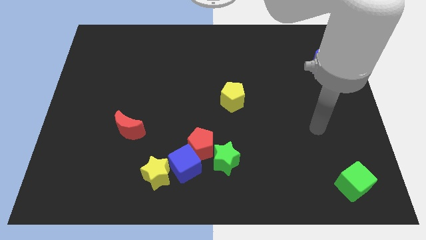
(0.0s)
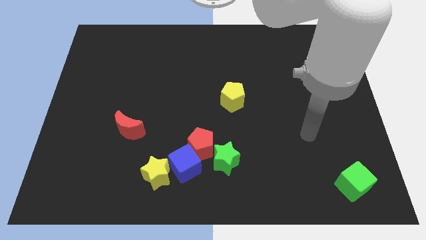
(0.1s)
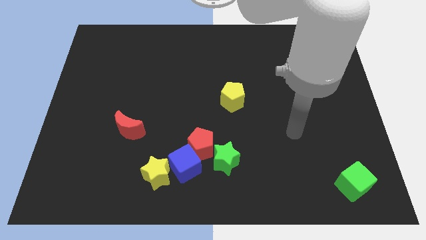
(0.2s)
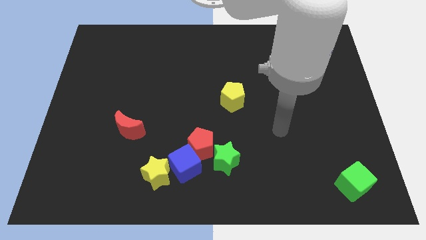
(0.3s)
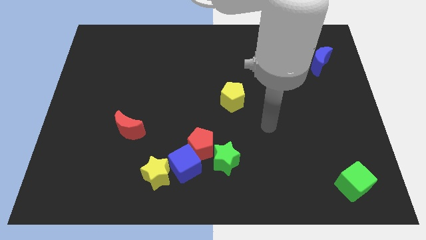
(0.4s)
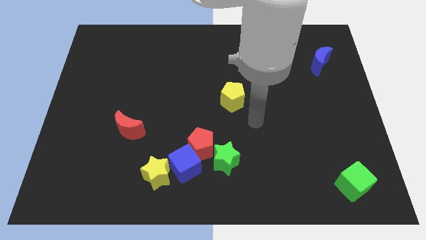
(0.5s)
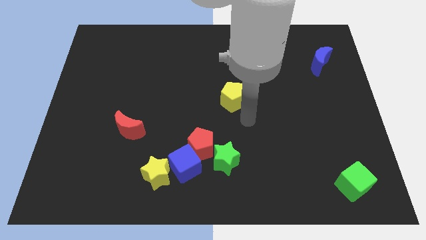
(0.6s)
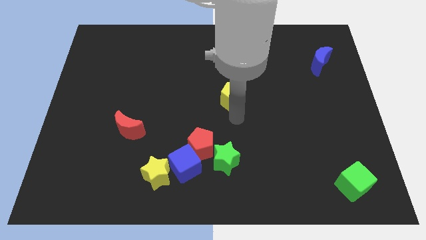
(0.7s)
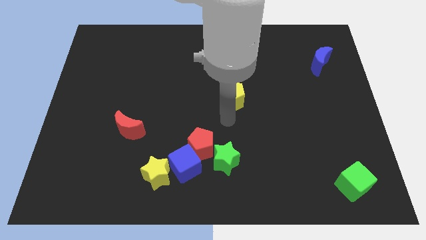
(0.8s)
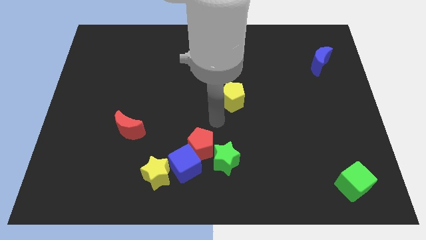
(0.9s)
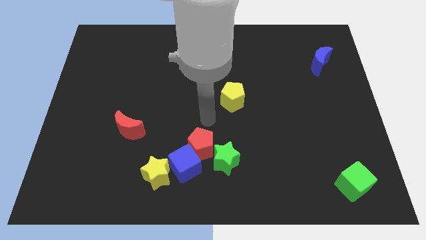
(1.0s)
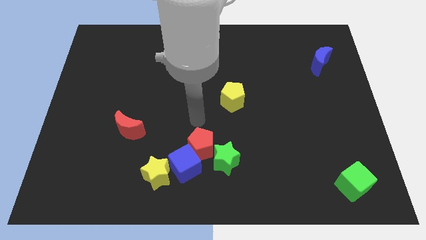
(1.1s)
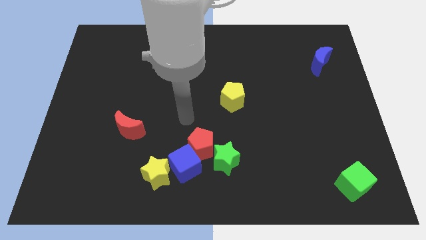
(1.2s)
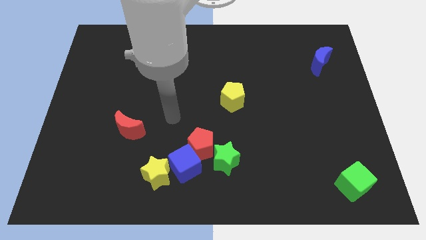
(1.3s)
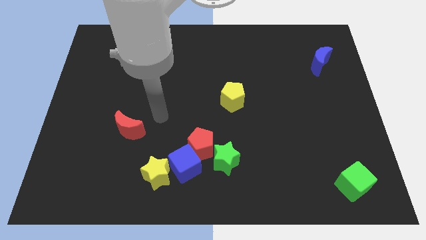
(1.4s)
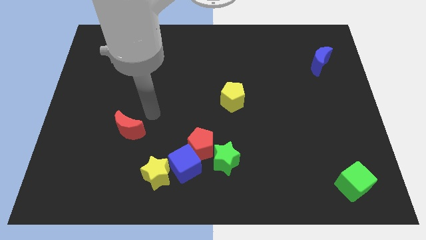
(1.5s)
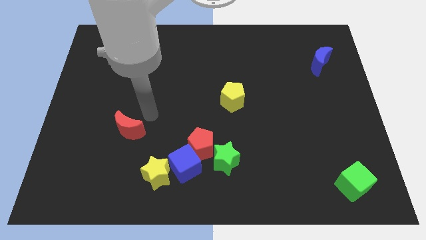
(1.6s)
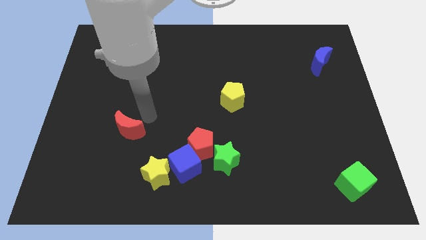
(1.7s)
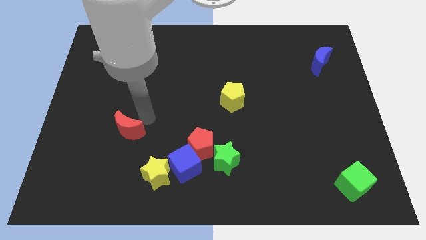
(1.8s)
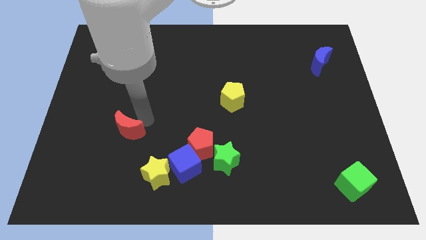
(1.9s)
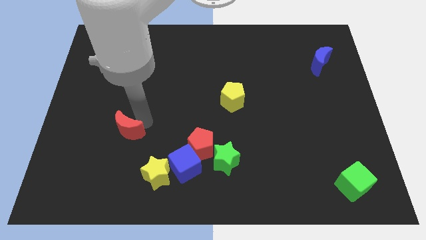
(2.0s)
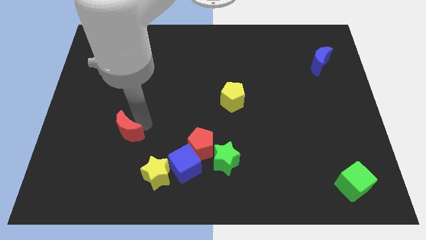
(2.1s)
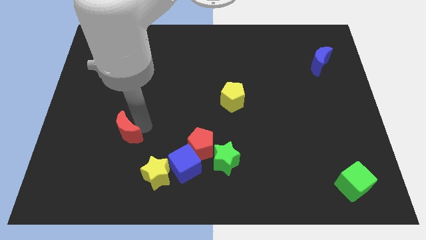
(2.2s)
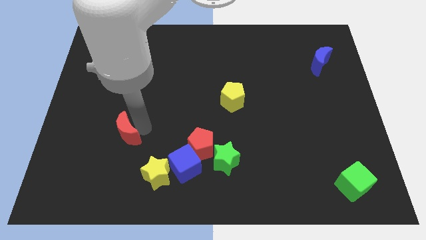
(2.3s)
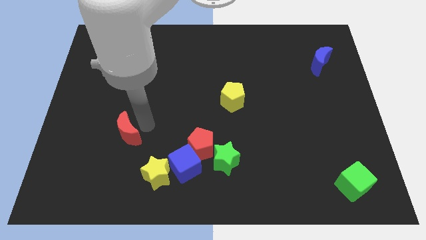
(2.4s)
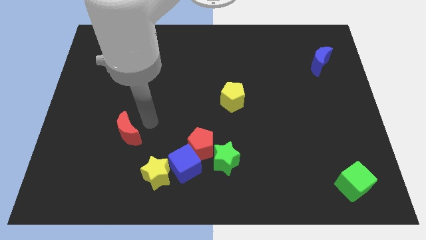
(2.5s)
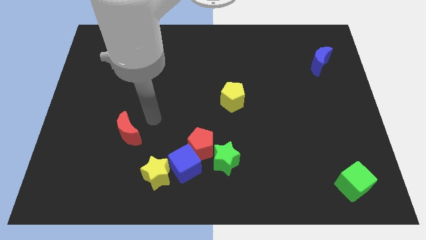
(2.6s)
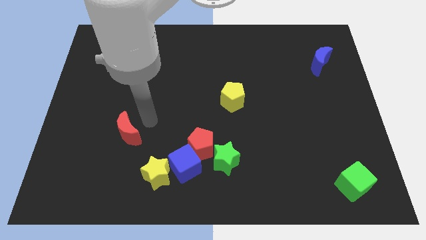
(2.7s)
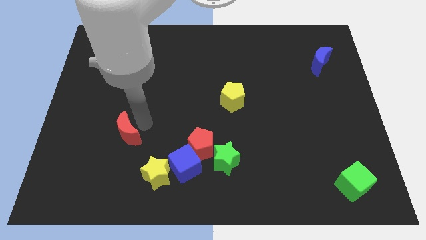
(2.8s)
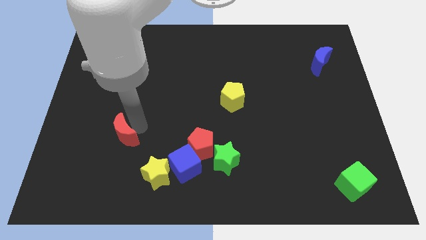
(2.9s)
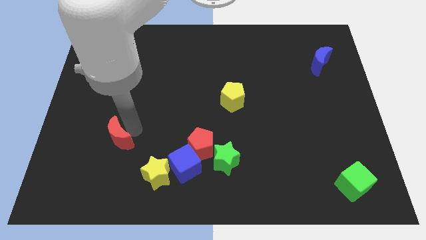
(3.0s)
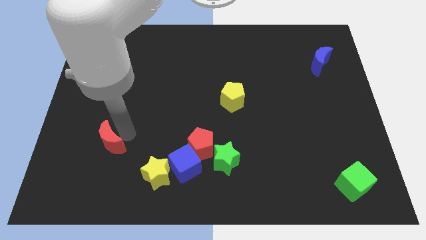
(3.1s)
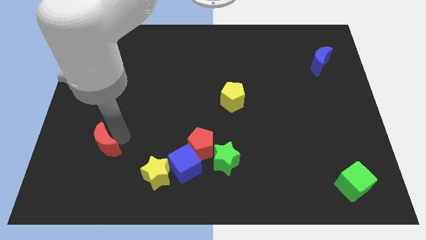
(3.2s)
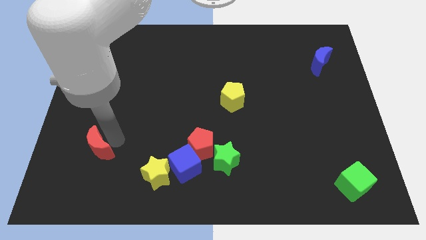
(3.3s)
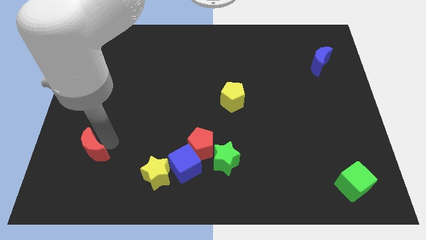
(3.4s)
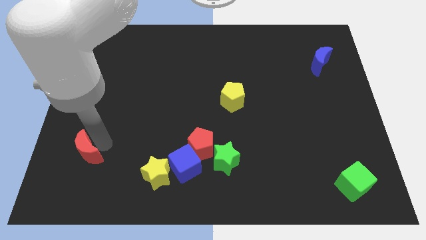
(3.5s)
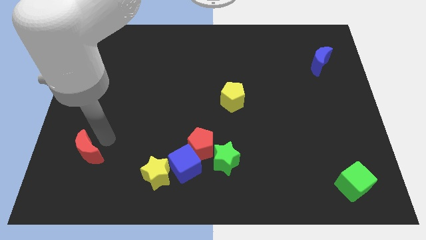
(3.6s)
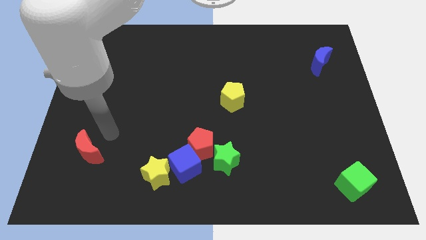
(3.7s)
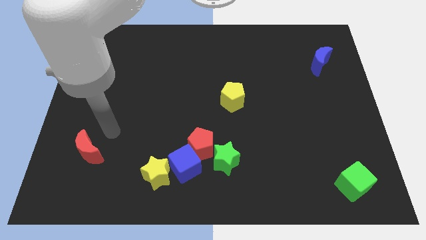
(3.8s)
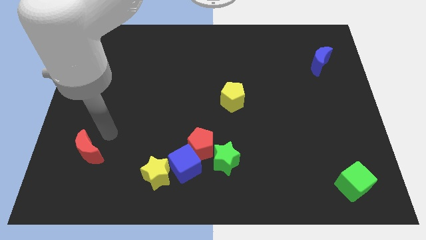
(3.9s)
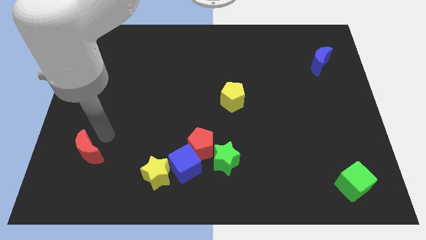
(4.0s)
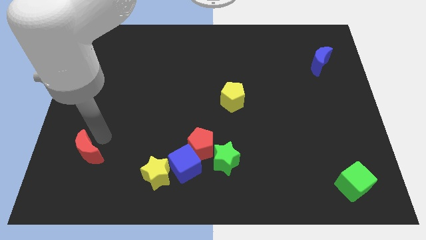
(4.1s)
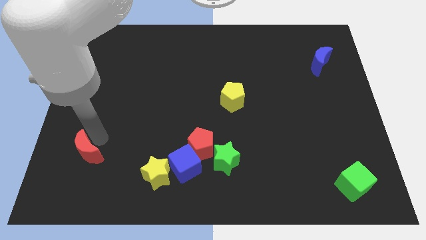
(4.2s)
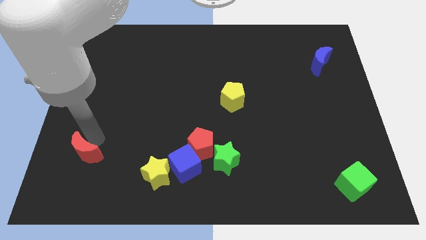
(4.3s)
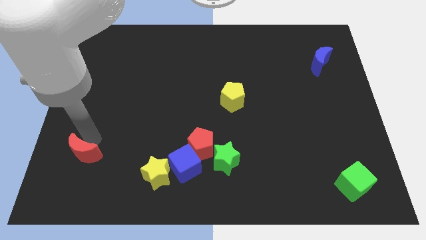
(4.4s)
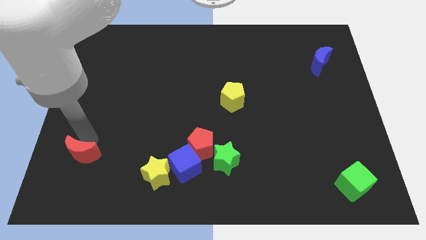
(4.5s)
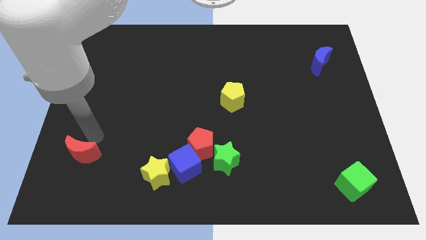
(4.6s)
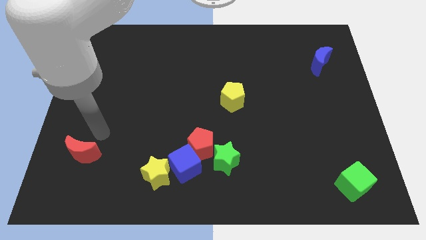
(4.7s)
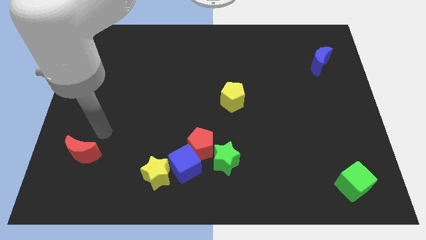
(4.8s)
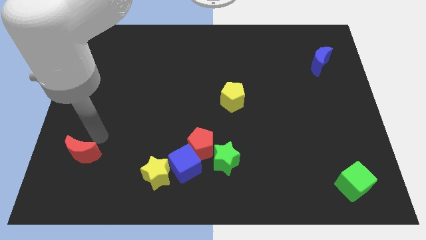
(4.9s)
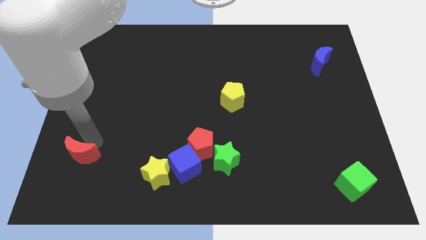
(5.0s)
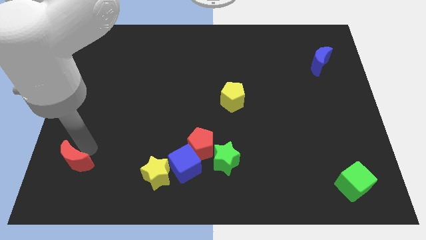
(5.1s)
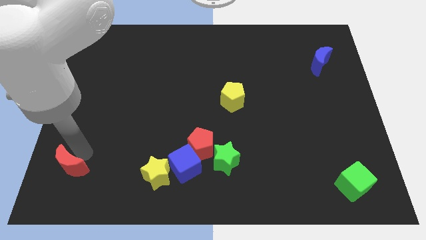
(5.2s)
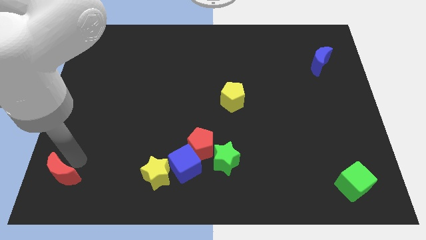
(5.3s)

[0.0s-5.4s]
slide the red moon to the bottom left
